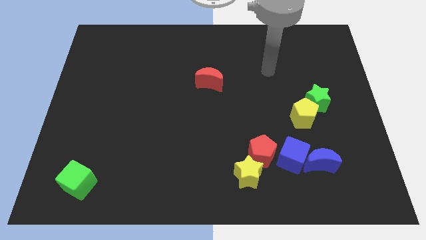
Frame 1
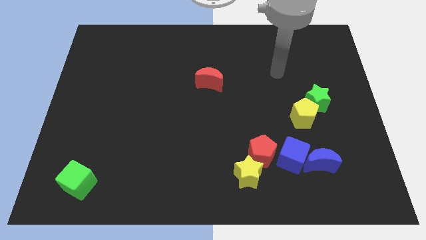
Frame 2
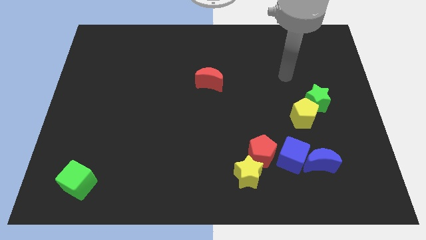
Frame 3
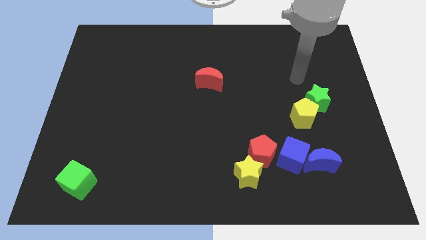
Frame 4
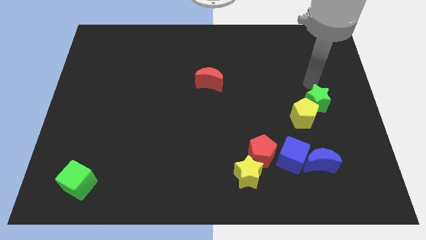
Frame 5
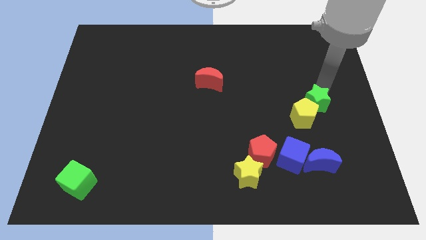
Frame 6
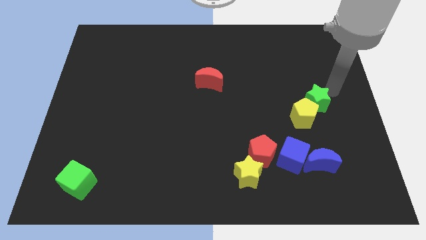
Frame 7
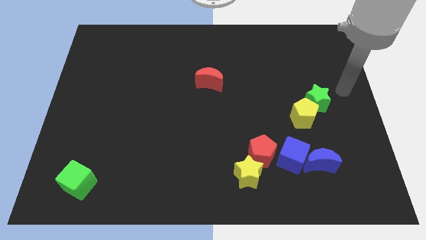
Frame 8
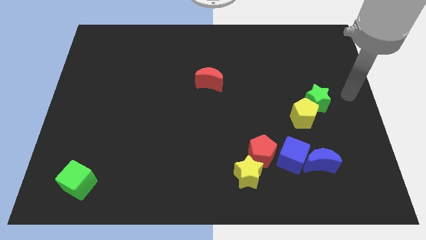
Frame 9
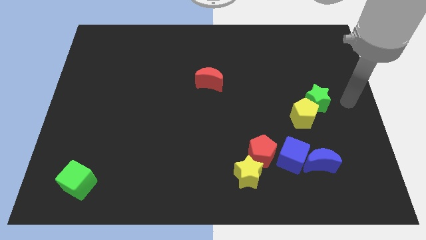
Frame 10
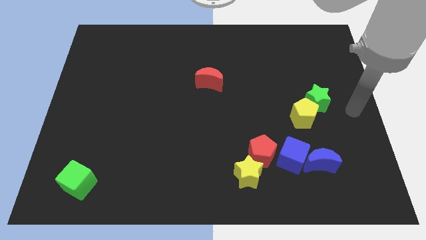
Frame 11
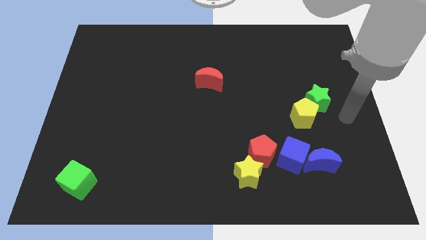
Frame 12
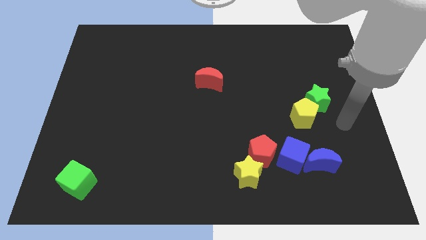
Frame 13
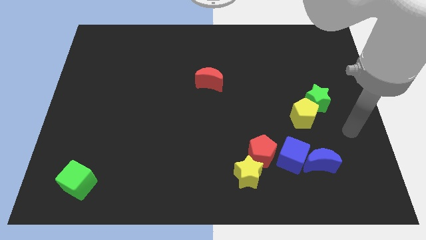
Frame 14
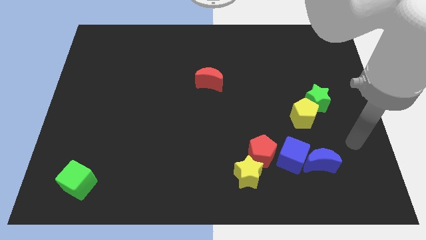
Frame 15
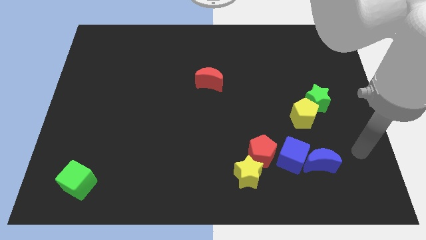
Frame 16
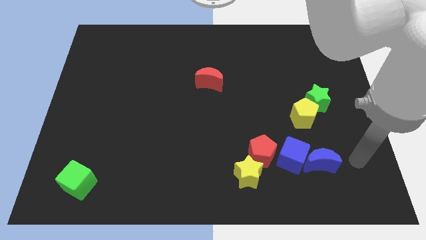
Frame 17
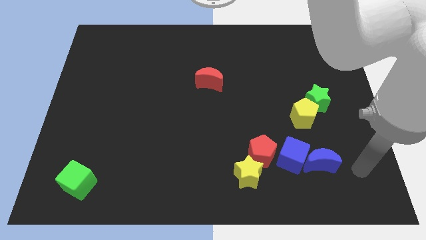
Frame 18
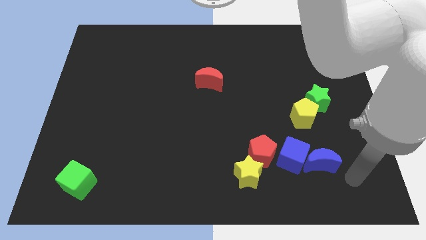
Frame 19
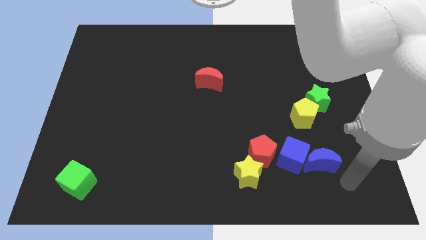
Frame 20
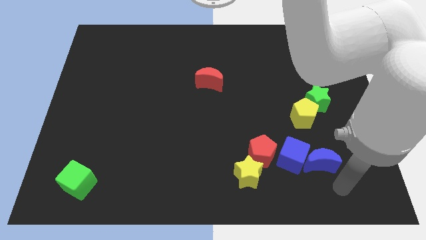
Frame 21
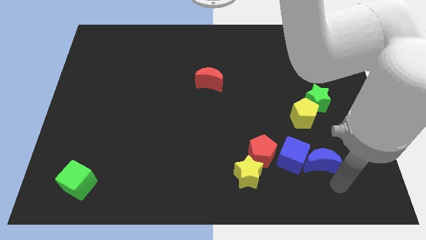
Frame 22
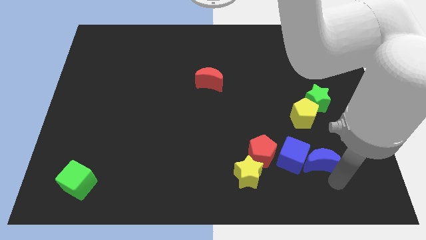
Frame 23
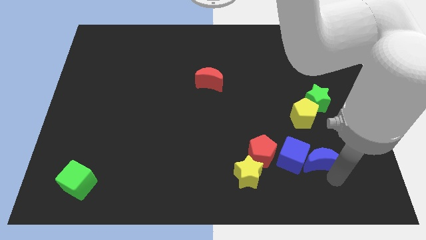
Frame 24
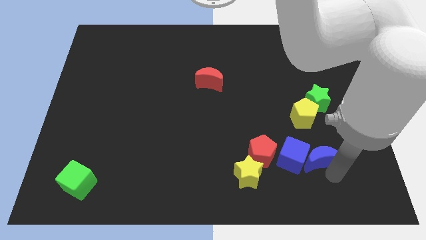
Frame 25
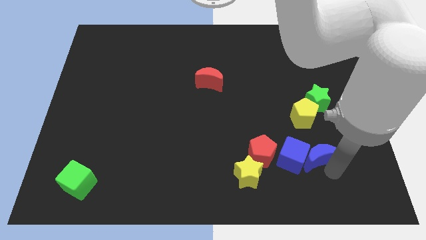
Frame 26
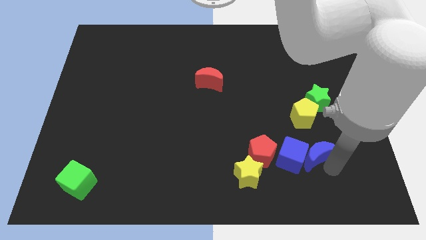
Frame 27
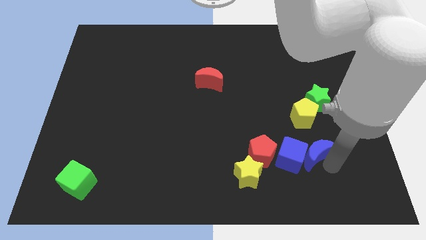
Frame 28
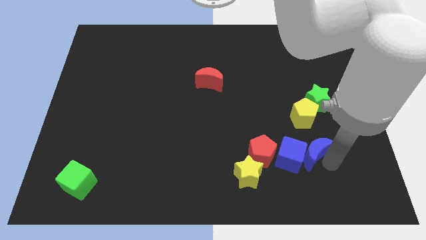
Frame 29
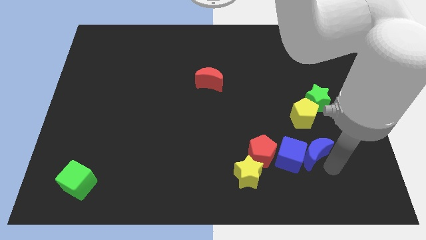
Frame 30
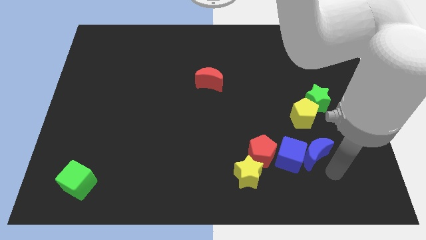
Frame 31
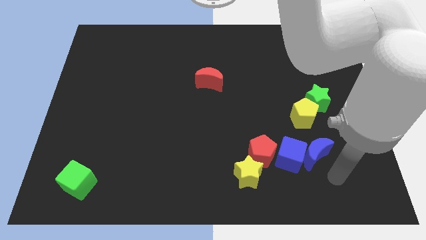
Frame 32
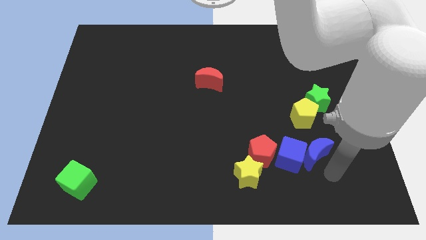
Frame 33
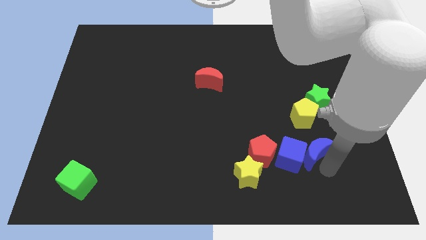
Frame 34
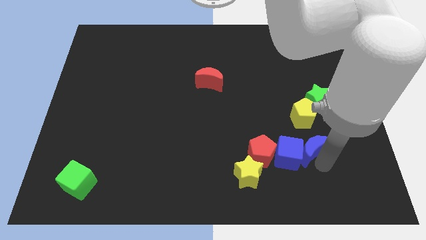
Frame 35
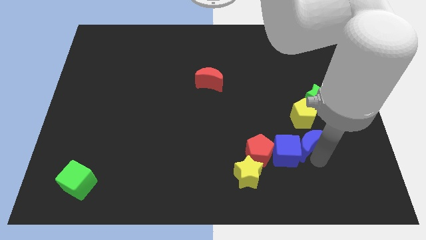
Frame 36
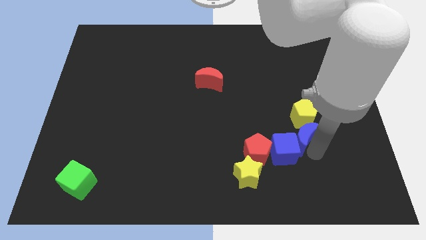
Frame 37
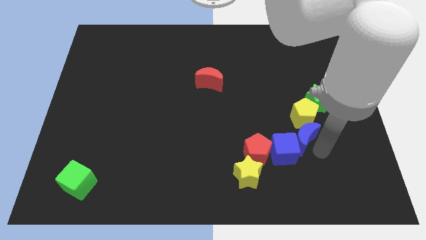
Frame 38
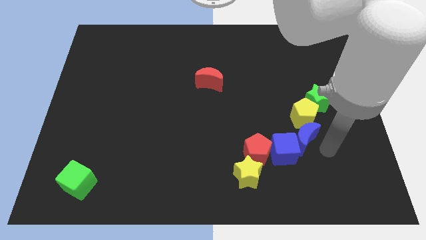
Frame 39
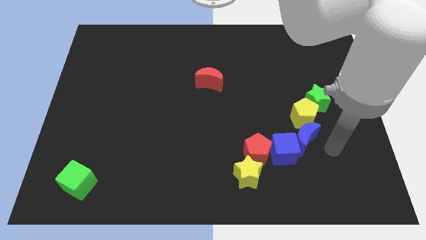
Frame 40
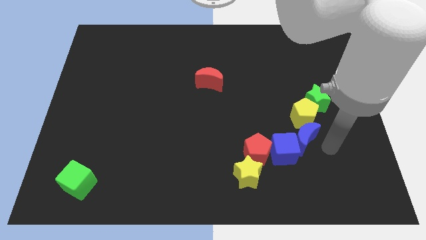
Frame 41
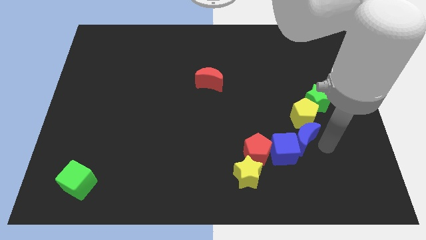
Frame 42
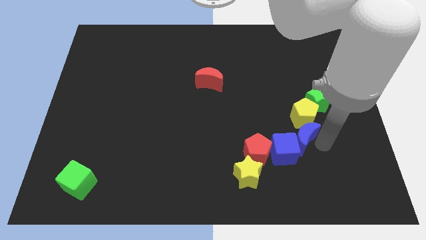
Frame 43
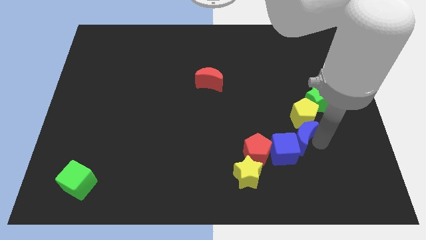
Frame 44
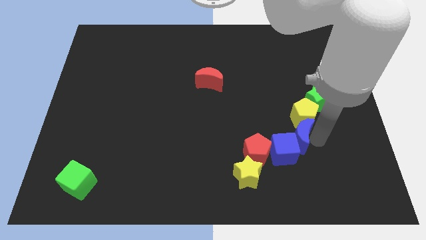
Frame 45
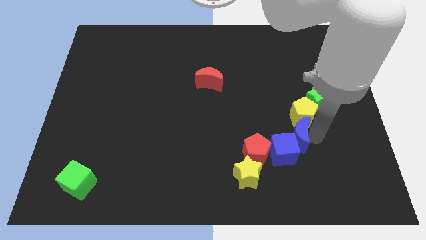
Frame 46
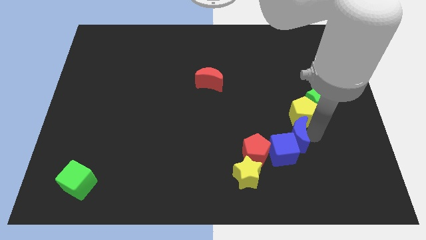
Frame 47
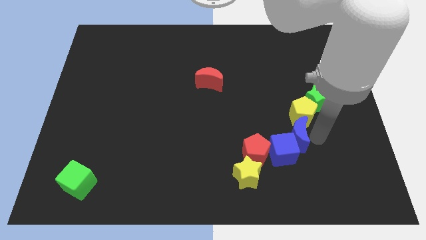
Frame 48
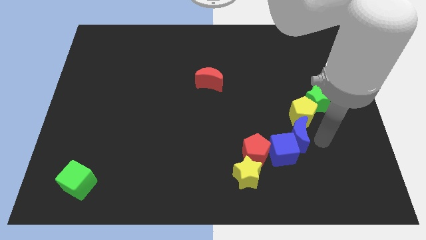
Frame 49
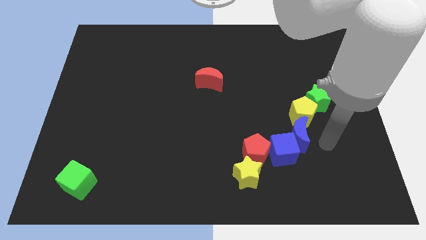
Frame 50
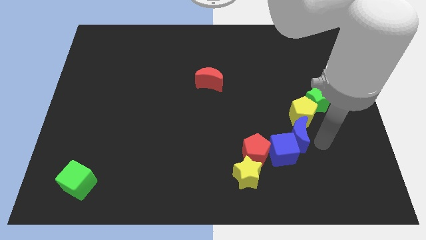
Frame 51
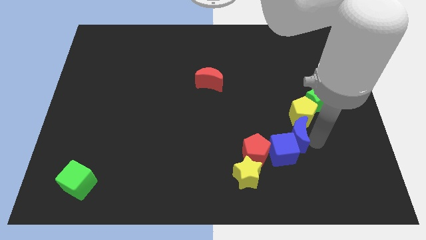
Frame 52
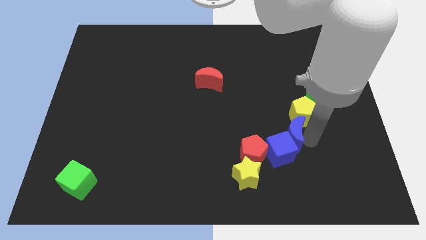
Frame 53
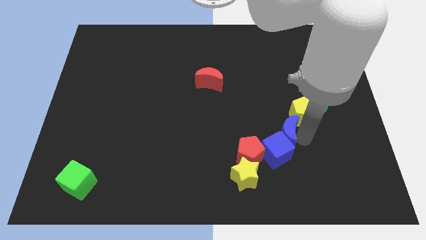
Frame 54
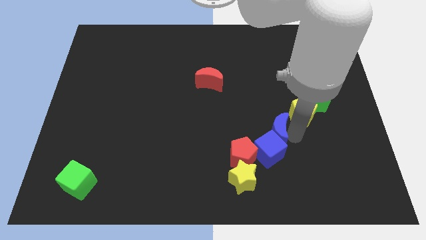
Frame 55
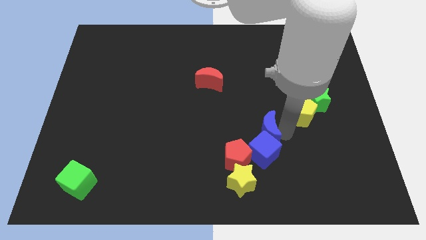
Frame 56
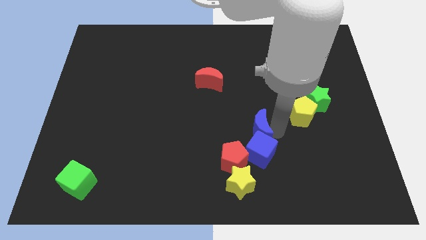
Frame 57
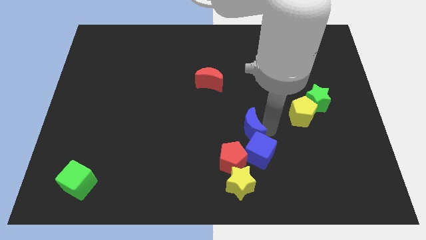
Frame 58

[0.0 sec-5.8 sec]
push the blue moon above the yellow star

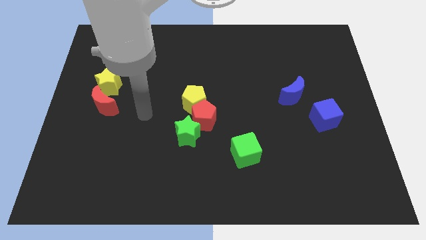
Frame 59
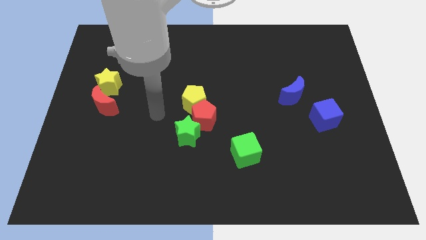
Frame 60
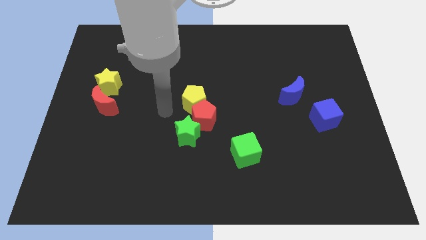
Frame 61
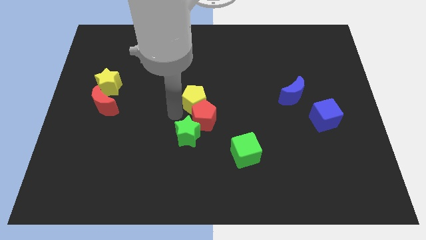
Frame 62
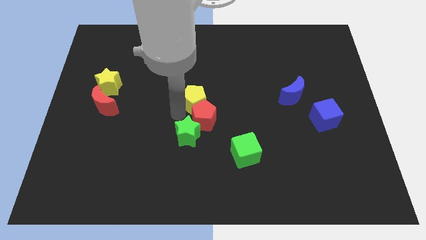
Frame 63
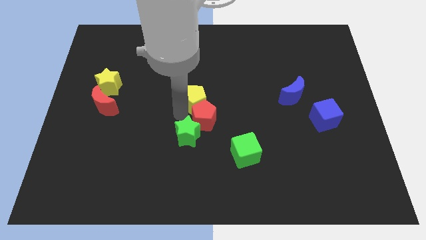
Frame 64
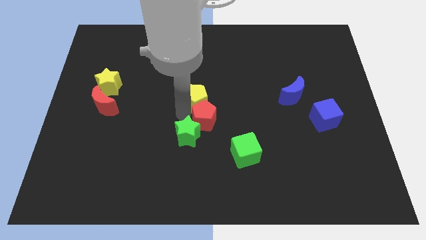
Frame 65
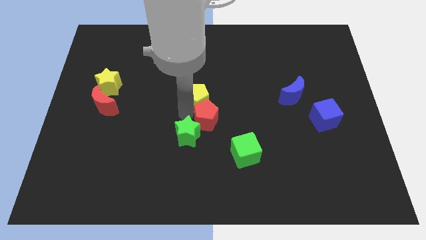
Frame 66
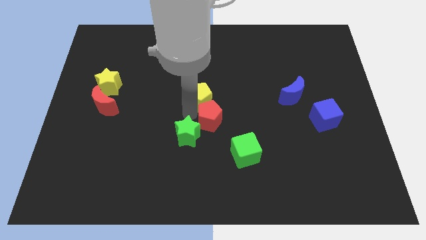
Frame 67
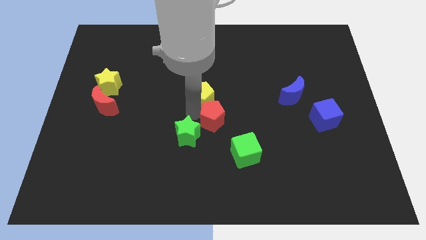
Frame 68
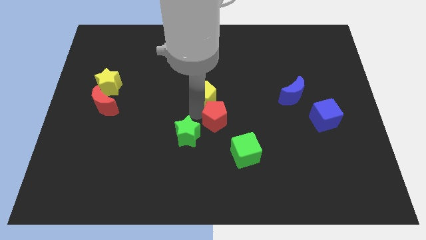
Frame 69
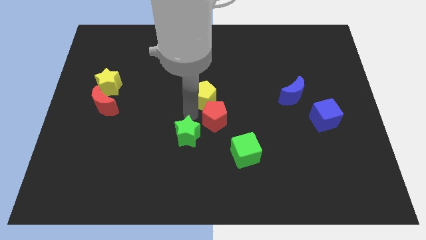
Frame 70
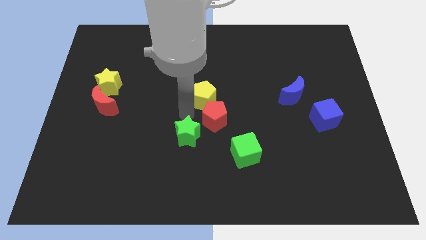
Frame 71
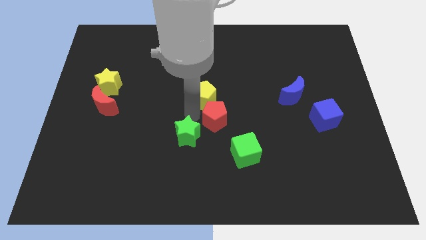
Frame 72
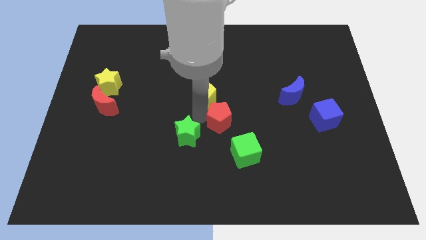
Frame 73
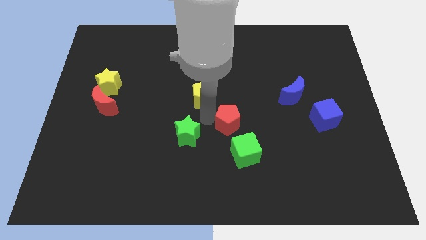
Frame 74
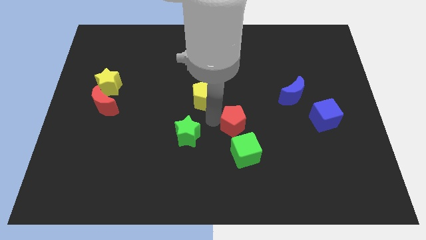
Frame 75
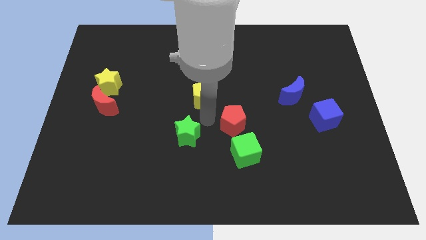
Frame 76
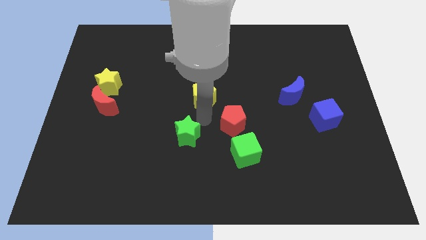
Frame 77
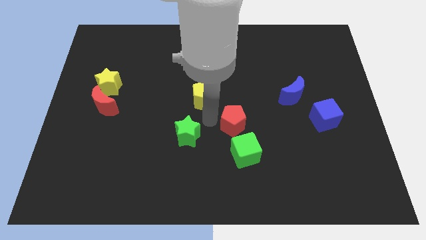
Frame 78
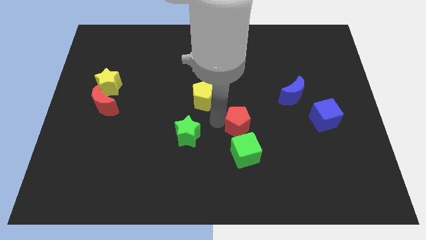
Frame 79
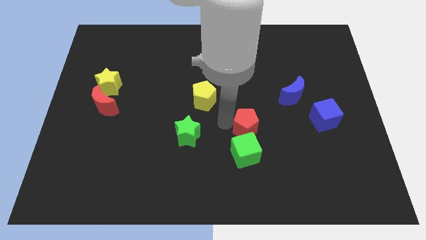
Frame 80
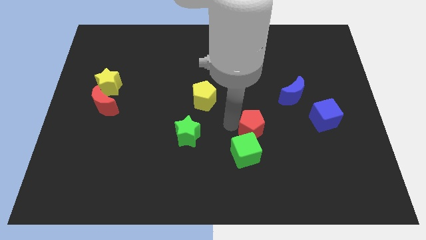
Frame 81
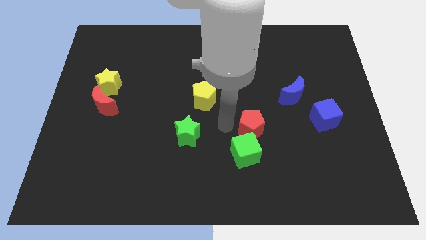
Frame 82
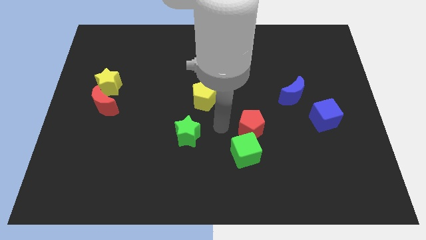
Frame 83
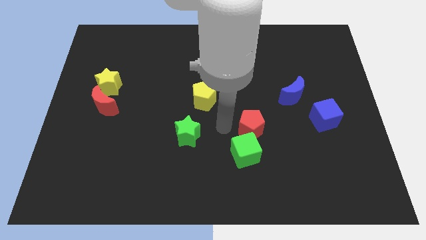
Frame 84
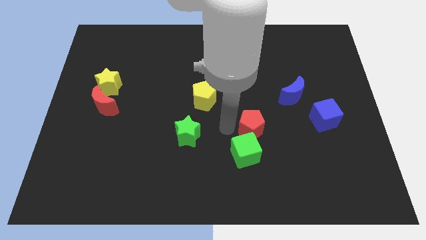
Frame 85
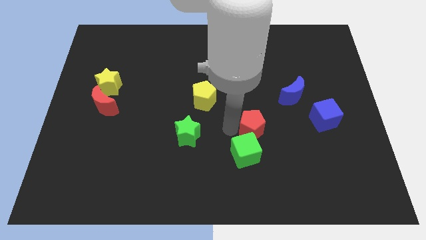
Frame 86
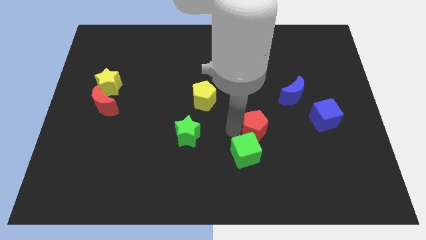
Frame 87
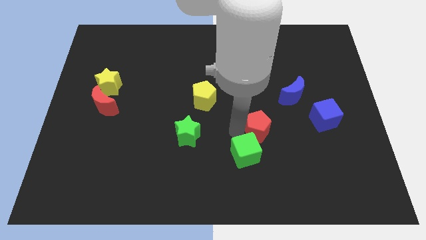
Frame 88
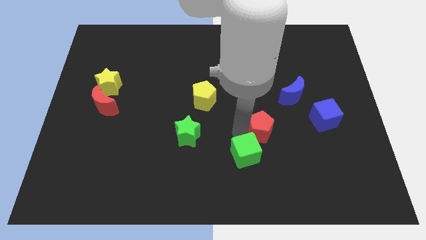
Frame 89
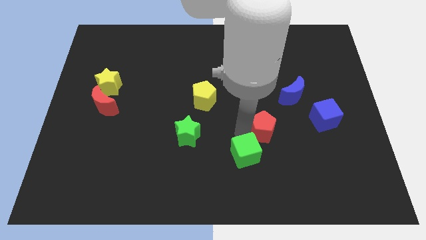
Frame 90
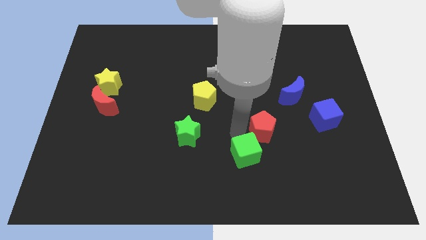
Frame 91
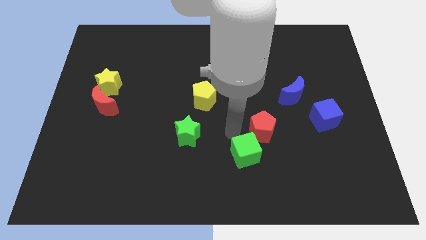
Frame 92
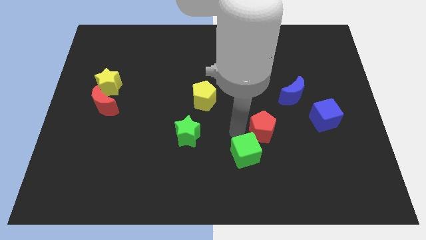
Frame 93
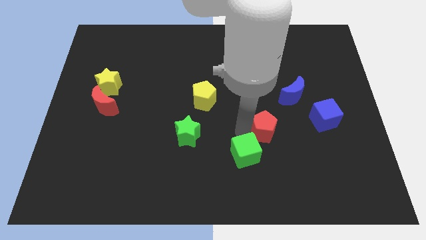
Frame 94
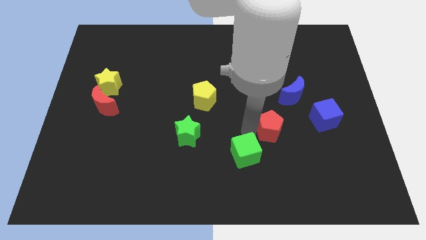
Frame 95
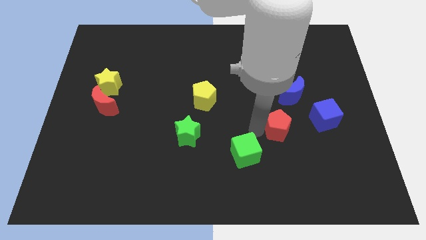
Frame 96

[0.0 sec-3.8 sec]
push the red pentagon to the bottom side of the blue moon
